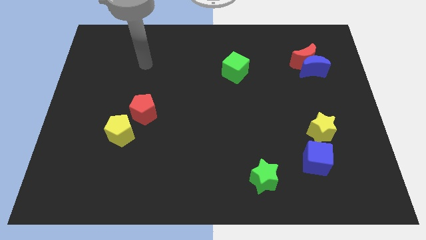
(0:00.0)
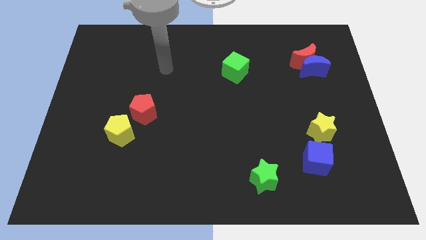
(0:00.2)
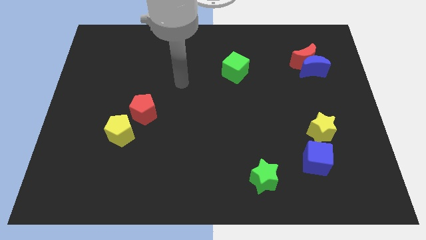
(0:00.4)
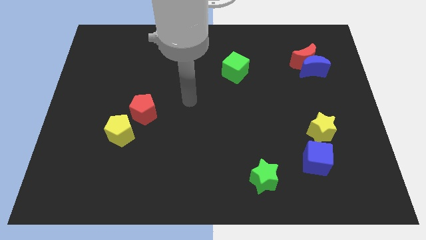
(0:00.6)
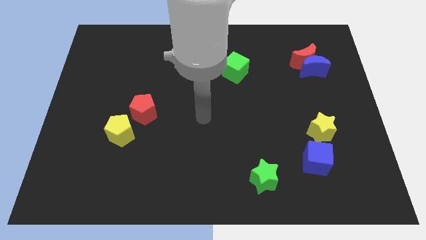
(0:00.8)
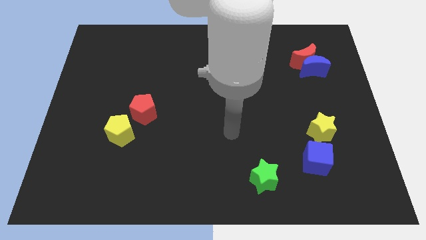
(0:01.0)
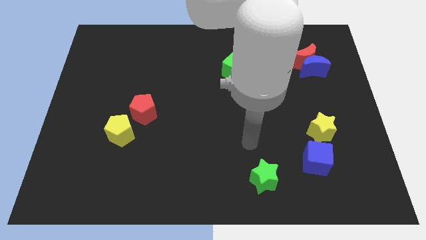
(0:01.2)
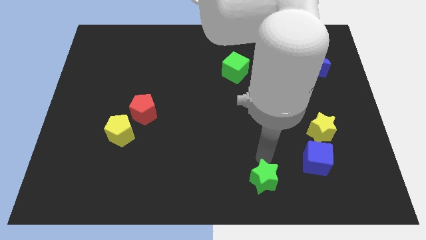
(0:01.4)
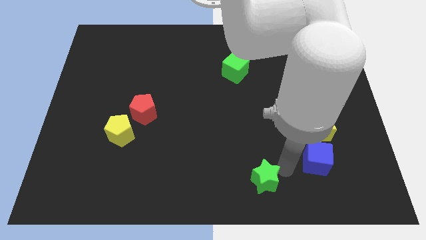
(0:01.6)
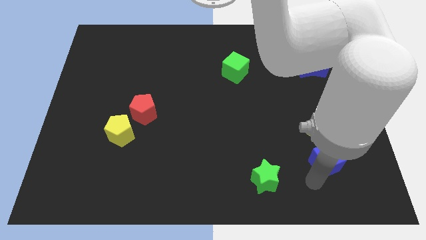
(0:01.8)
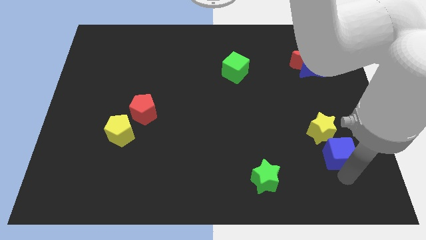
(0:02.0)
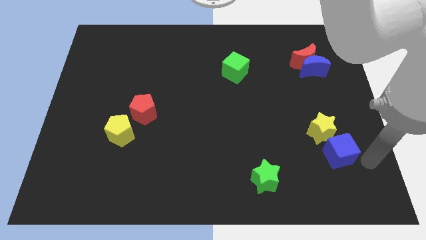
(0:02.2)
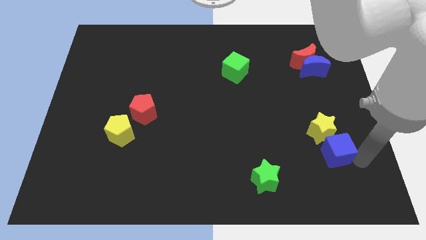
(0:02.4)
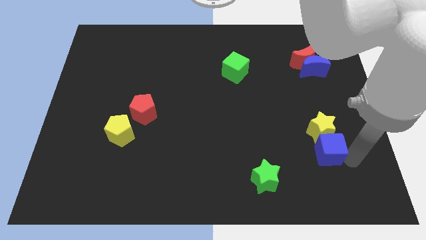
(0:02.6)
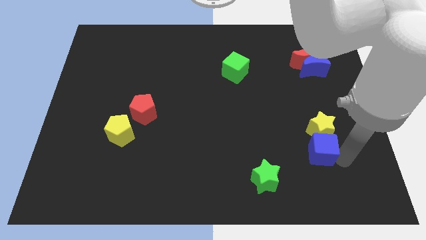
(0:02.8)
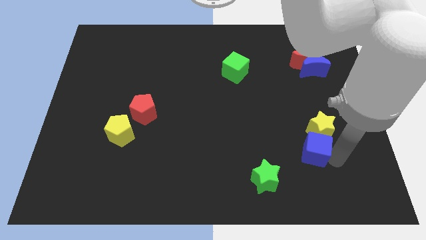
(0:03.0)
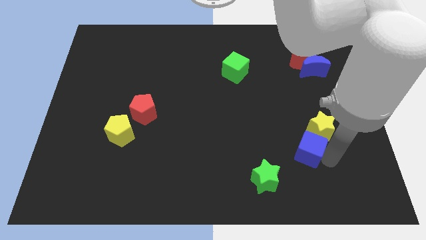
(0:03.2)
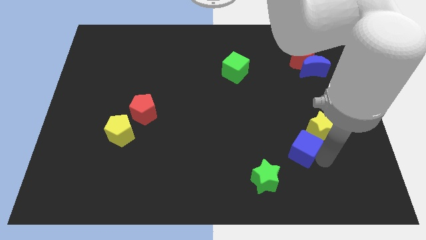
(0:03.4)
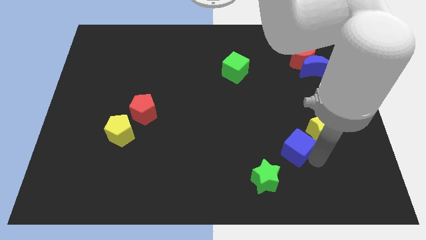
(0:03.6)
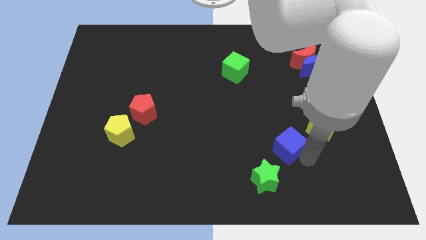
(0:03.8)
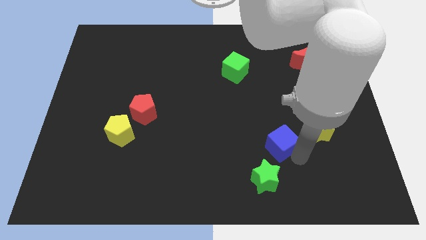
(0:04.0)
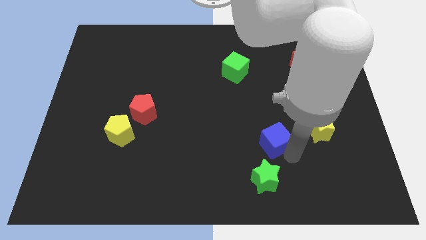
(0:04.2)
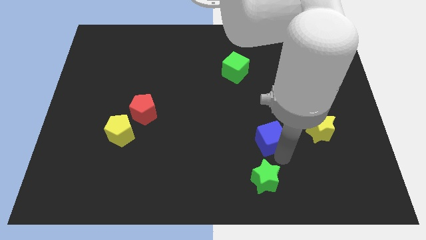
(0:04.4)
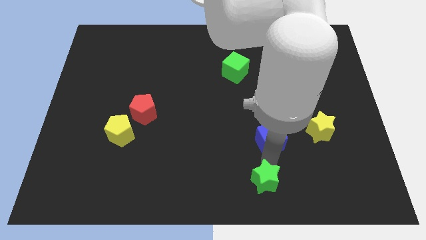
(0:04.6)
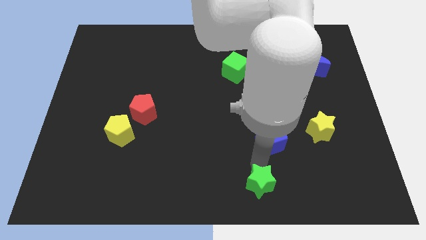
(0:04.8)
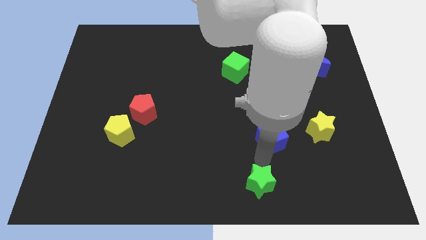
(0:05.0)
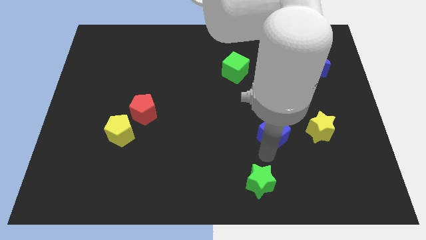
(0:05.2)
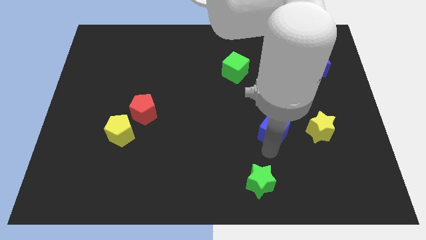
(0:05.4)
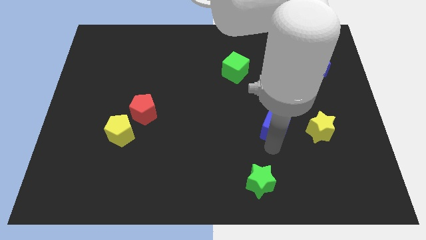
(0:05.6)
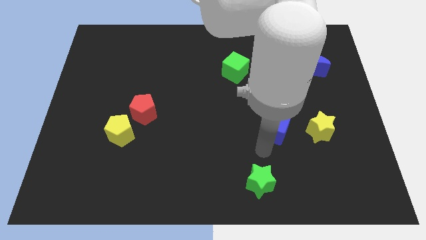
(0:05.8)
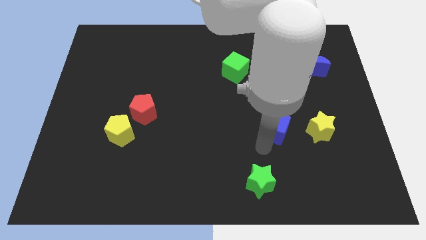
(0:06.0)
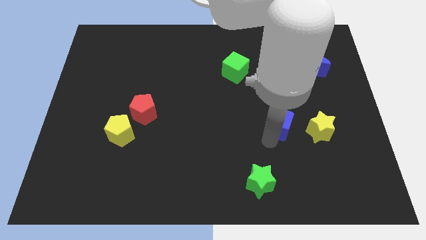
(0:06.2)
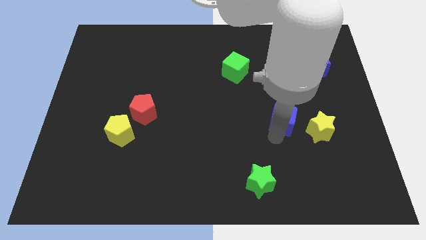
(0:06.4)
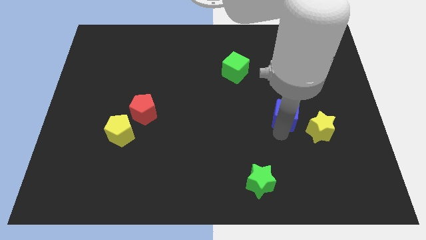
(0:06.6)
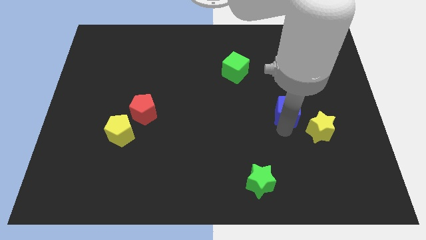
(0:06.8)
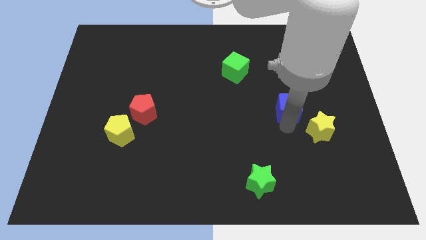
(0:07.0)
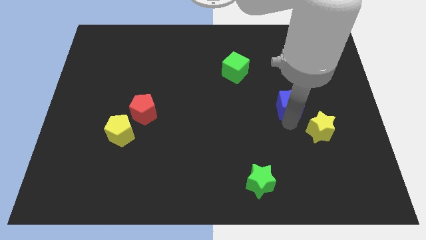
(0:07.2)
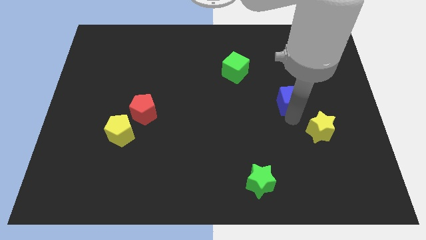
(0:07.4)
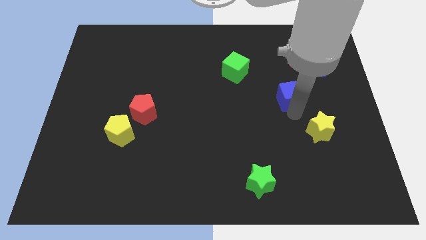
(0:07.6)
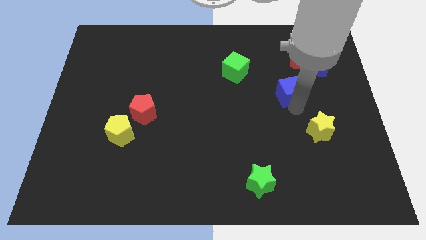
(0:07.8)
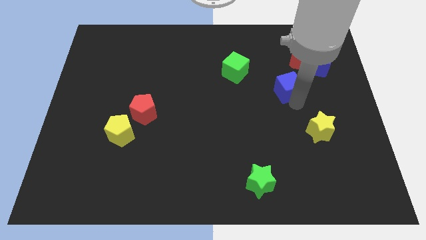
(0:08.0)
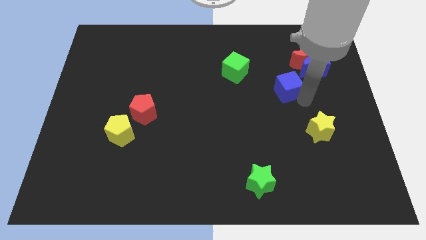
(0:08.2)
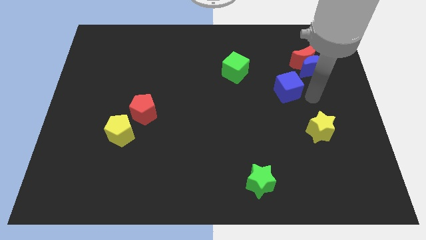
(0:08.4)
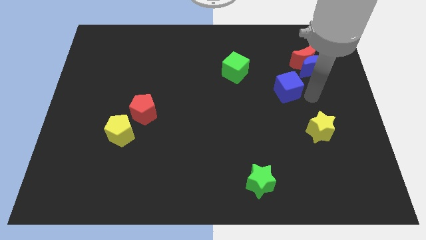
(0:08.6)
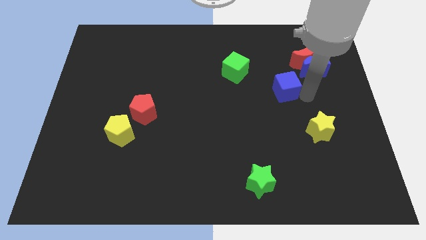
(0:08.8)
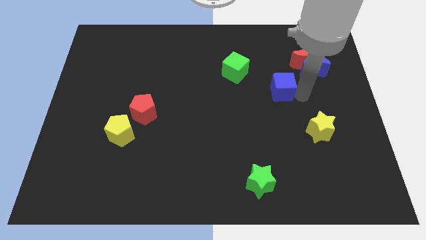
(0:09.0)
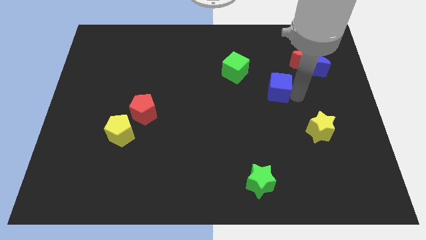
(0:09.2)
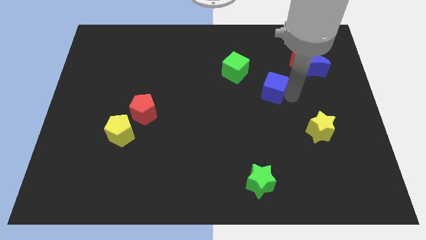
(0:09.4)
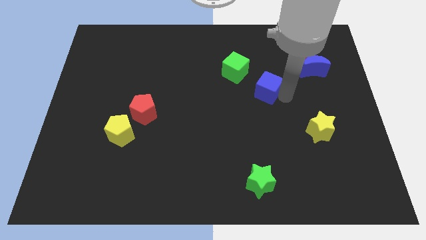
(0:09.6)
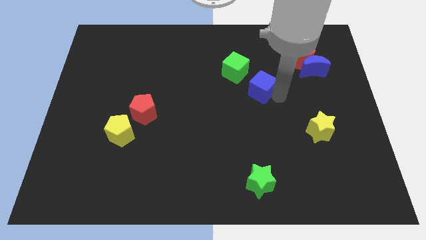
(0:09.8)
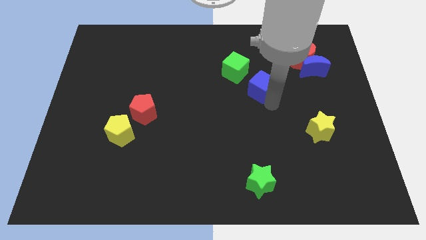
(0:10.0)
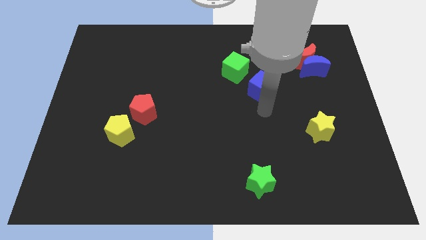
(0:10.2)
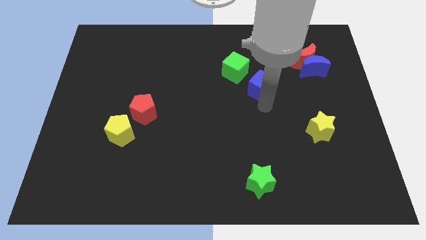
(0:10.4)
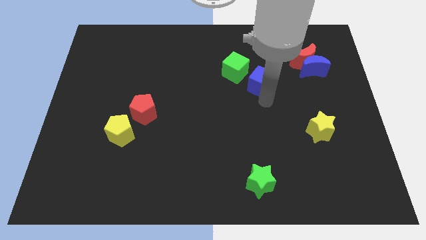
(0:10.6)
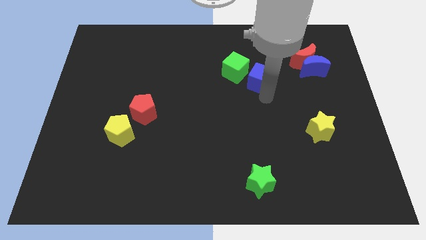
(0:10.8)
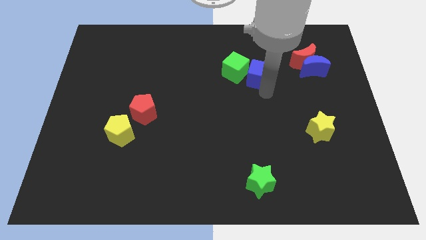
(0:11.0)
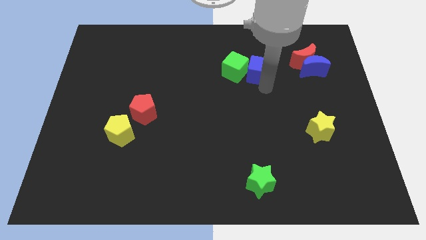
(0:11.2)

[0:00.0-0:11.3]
slide the blue cube diagonally up and to the right of the green cube

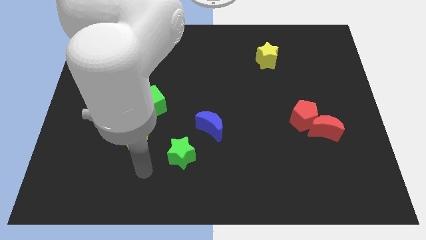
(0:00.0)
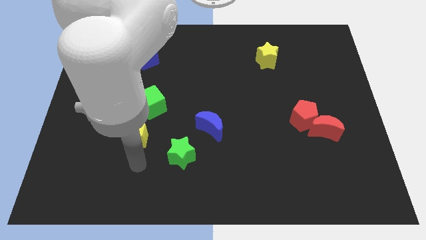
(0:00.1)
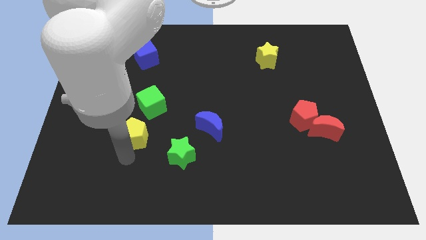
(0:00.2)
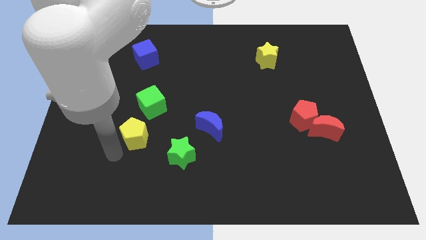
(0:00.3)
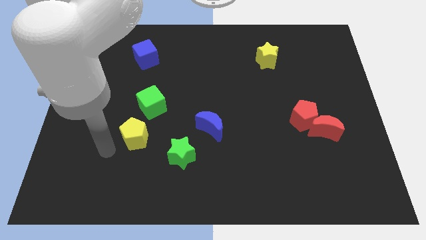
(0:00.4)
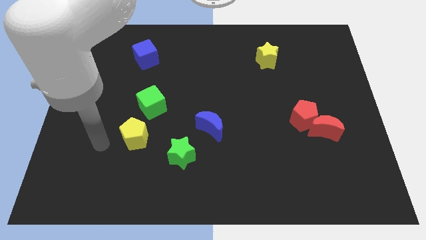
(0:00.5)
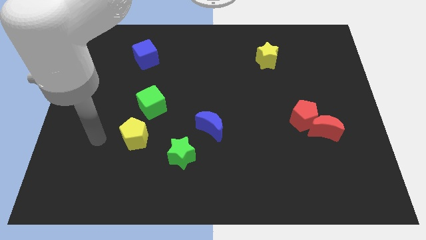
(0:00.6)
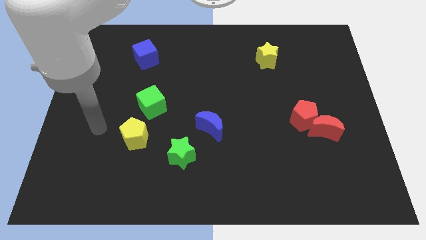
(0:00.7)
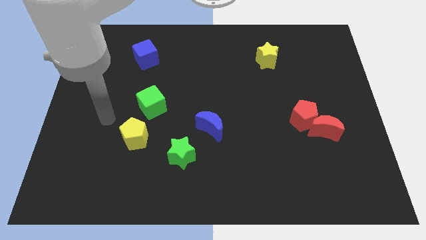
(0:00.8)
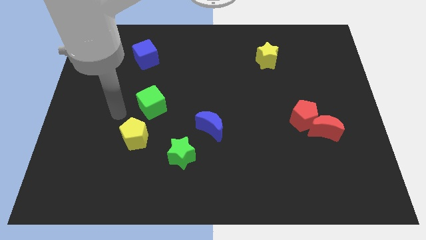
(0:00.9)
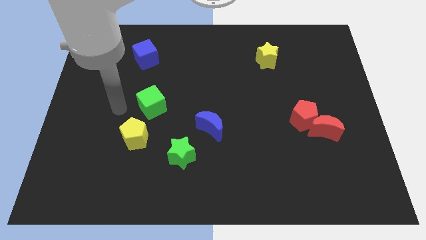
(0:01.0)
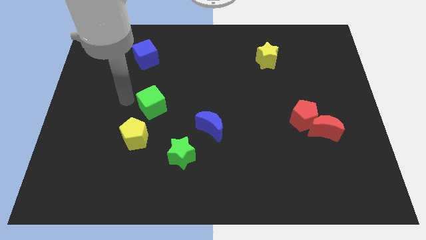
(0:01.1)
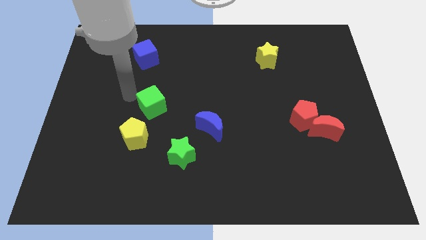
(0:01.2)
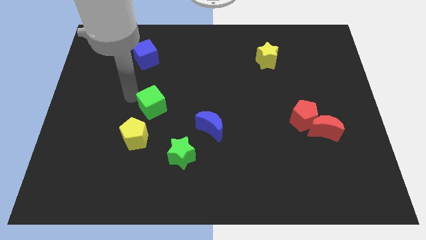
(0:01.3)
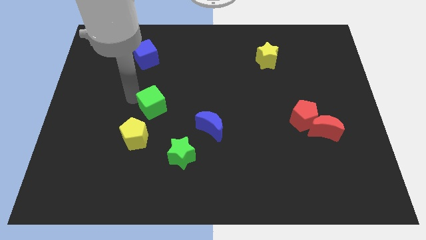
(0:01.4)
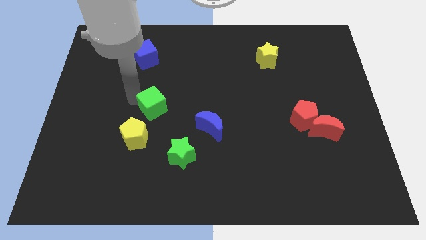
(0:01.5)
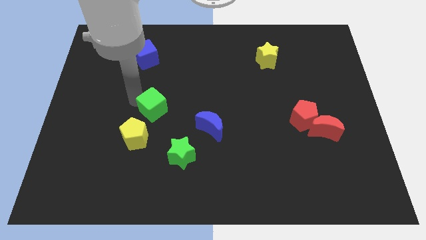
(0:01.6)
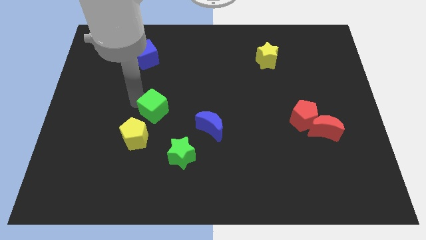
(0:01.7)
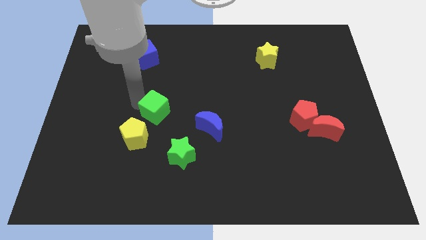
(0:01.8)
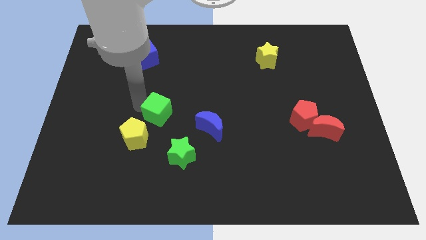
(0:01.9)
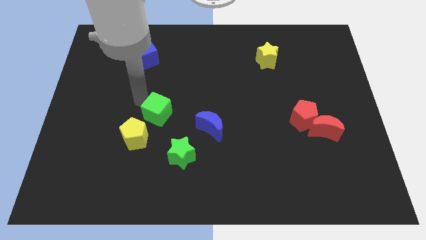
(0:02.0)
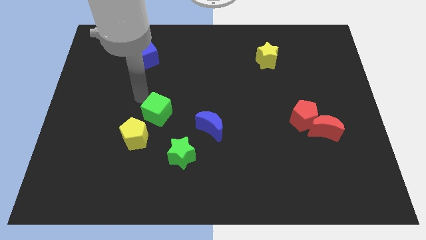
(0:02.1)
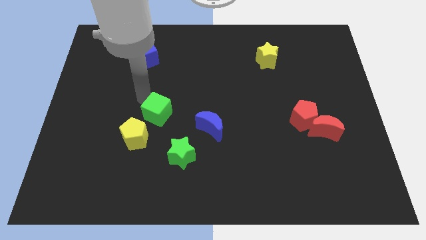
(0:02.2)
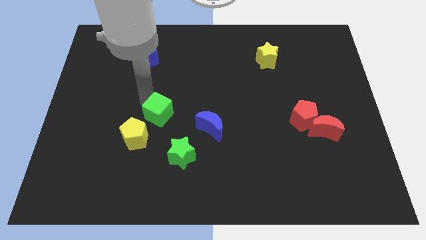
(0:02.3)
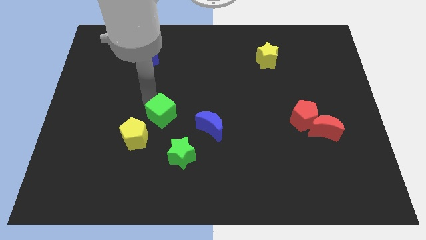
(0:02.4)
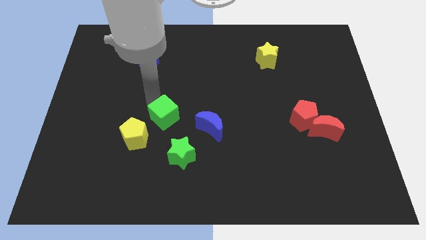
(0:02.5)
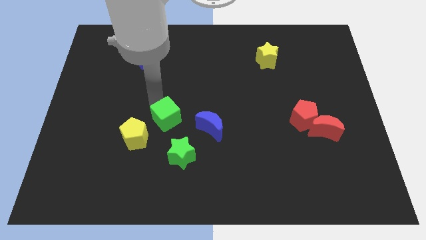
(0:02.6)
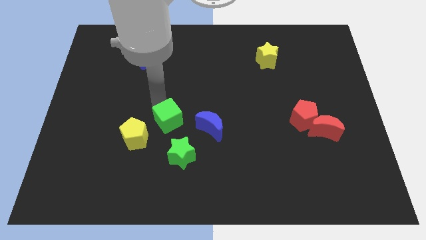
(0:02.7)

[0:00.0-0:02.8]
slide the green cube to the right of the yellow pentagon
